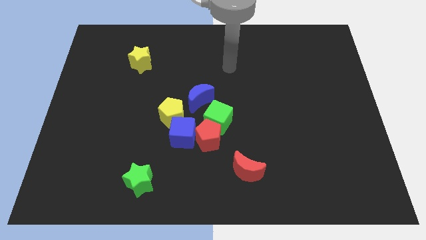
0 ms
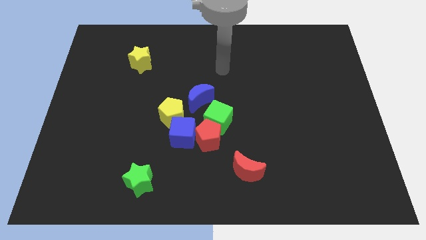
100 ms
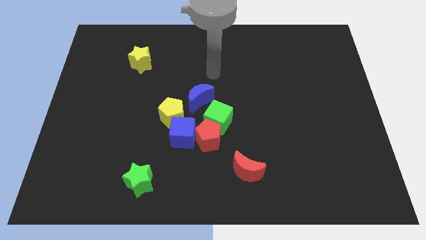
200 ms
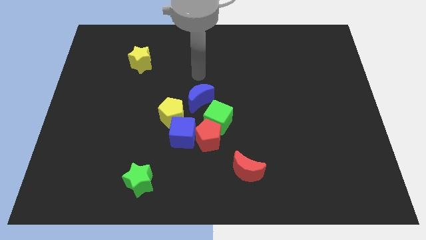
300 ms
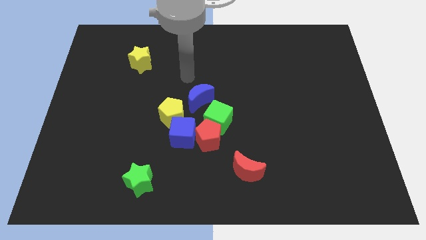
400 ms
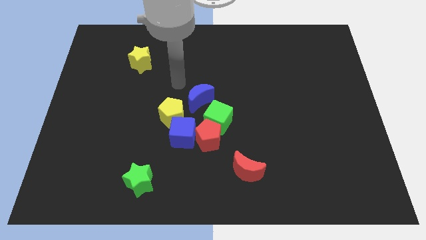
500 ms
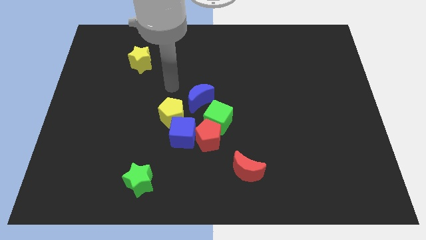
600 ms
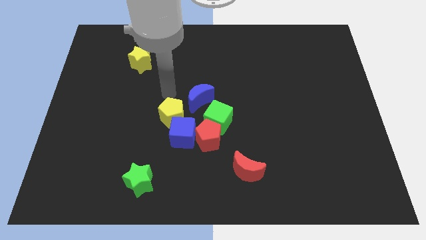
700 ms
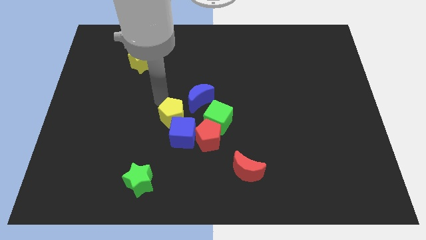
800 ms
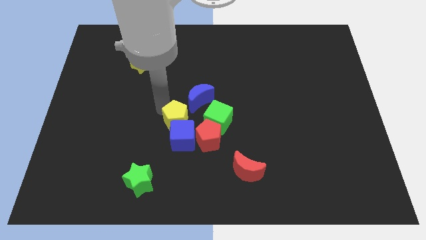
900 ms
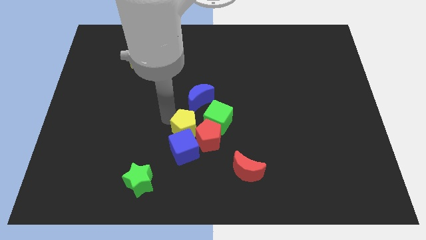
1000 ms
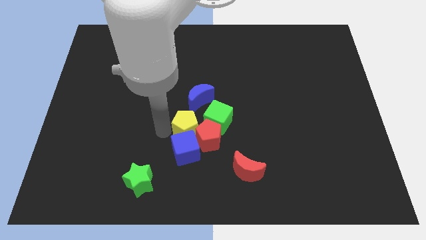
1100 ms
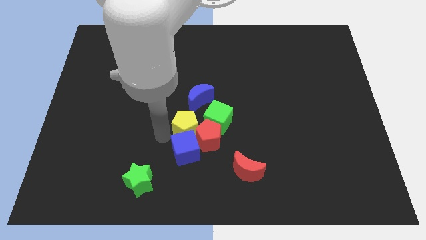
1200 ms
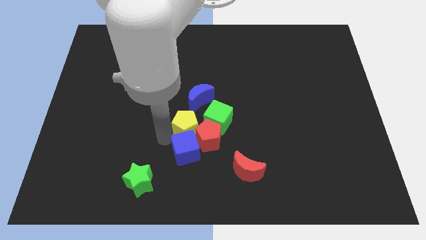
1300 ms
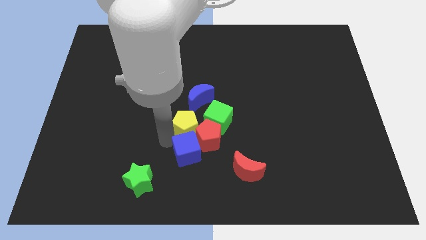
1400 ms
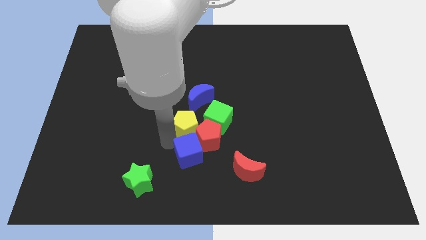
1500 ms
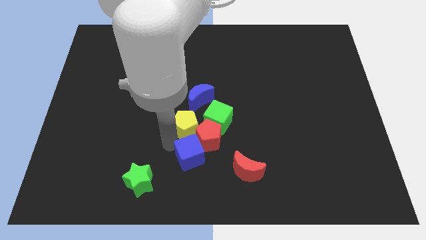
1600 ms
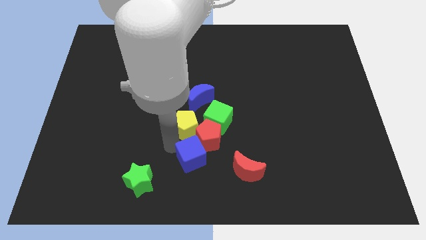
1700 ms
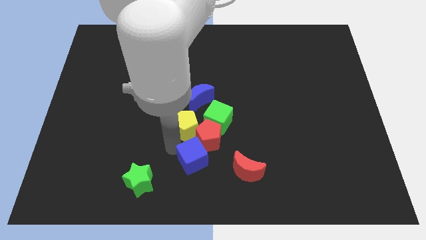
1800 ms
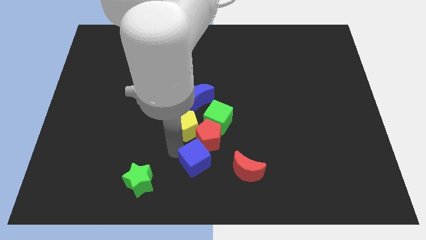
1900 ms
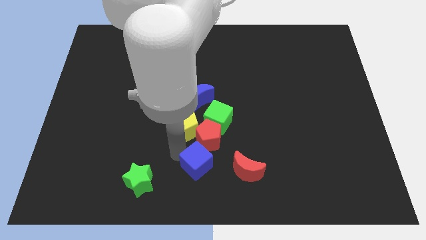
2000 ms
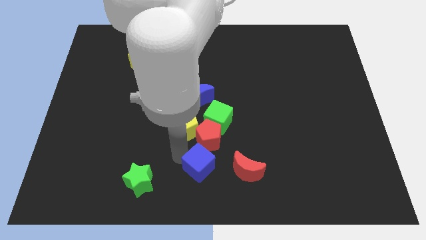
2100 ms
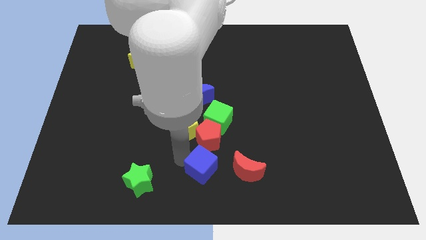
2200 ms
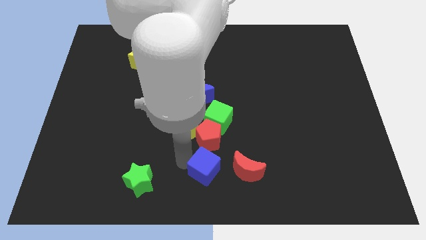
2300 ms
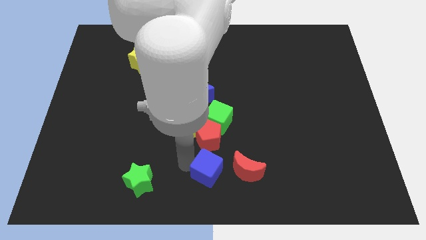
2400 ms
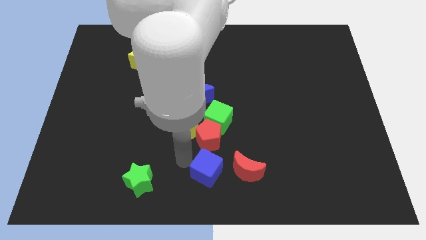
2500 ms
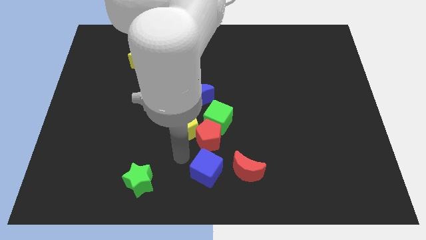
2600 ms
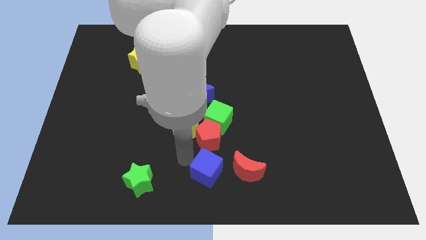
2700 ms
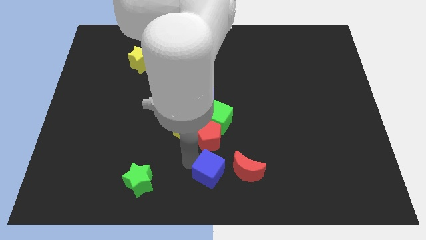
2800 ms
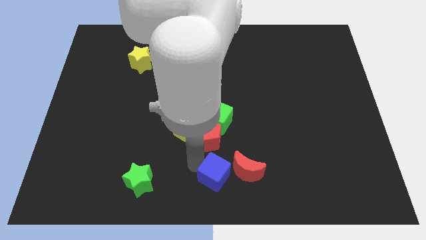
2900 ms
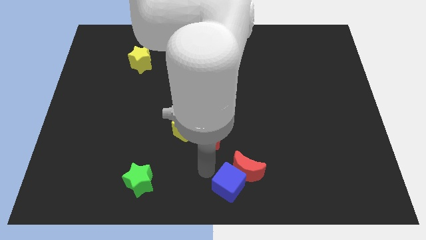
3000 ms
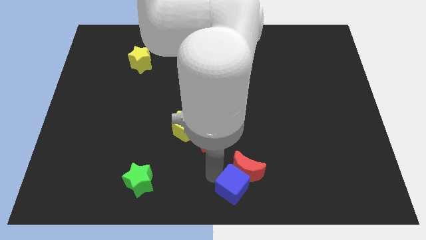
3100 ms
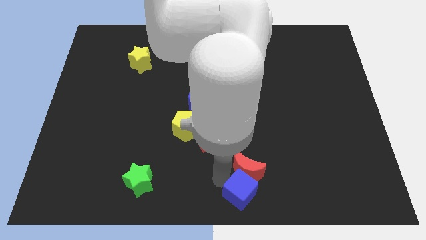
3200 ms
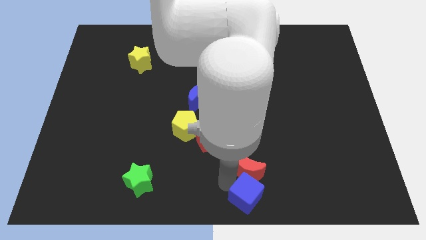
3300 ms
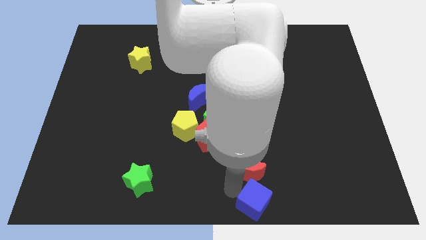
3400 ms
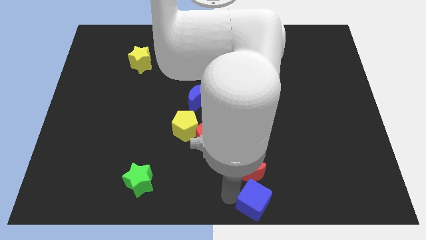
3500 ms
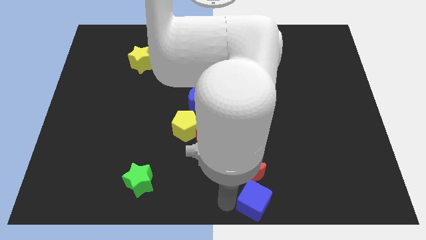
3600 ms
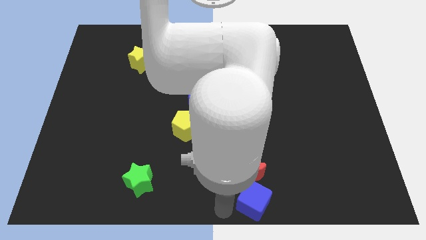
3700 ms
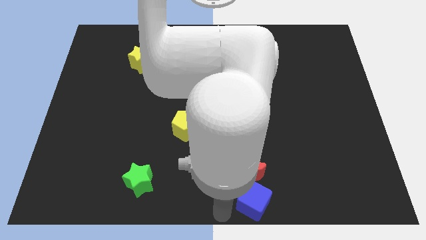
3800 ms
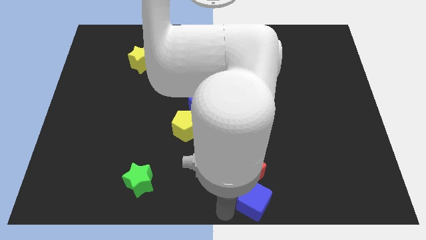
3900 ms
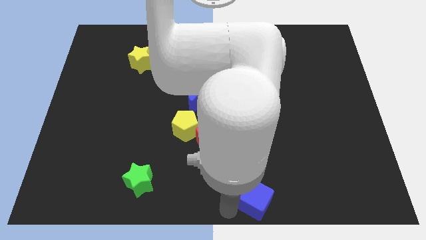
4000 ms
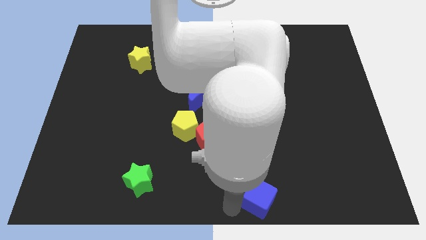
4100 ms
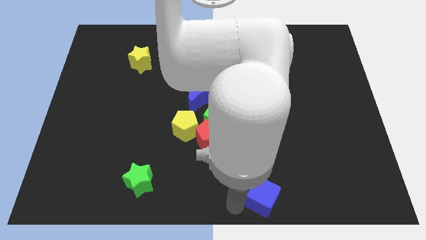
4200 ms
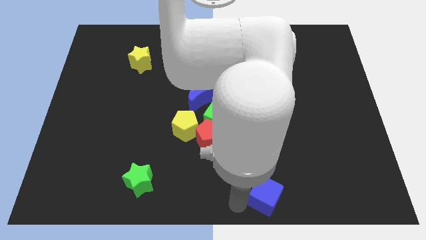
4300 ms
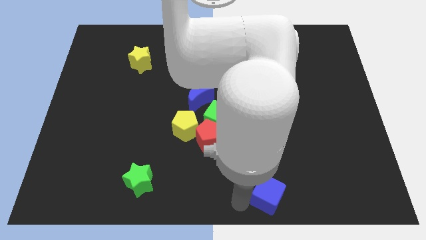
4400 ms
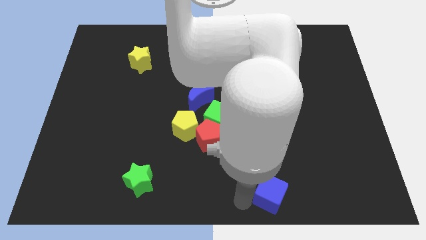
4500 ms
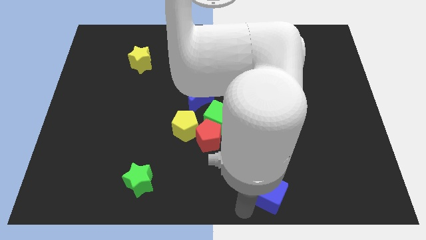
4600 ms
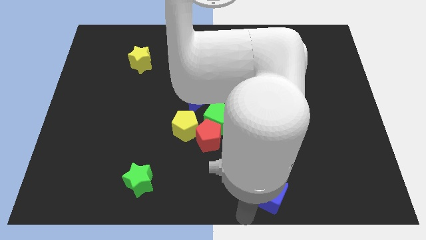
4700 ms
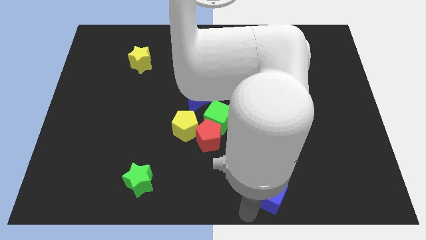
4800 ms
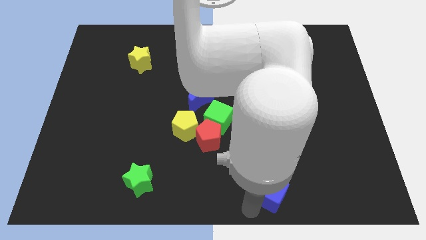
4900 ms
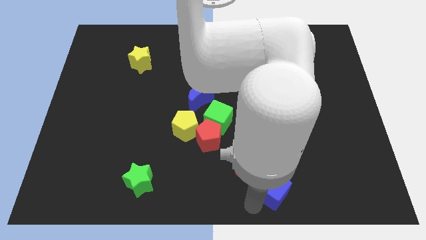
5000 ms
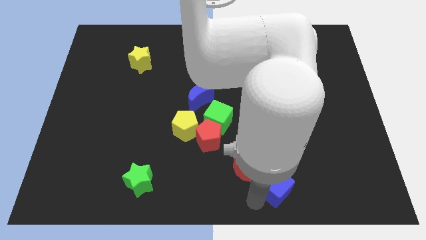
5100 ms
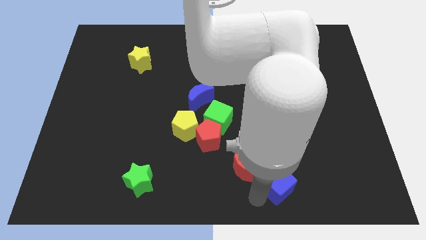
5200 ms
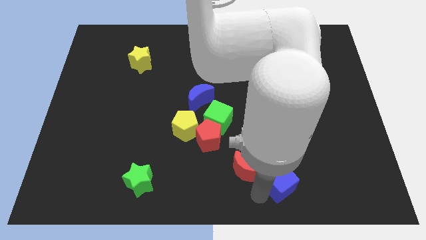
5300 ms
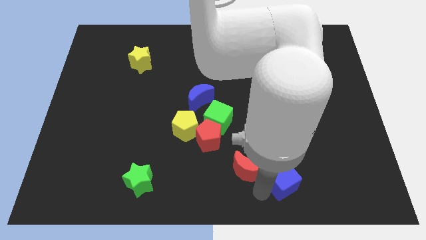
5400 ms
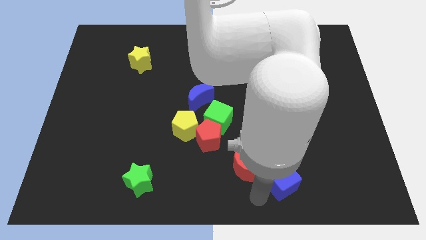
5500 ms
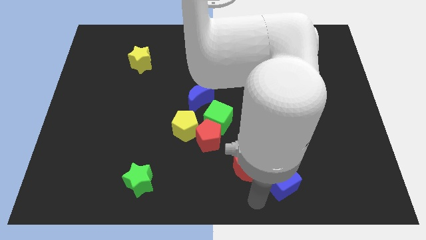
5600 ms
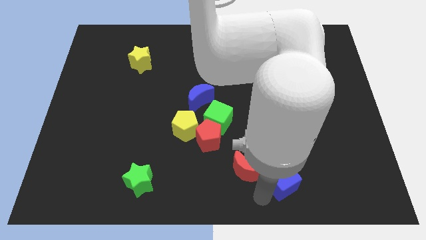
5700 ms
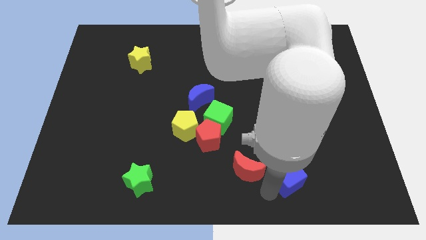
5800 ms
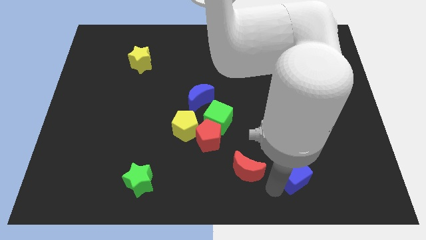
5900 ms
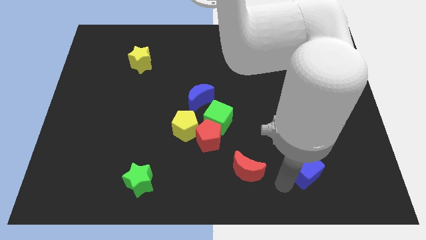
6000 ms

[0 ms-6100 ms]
slide the blue cube right

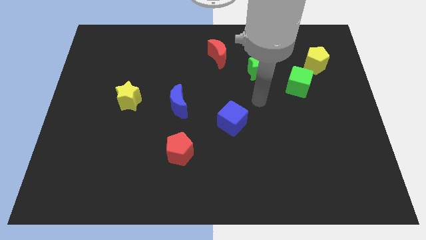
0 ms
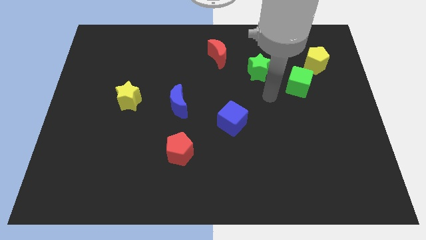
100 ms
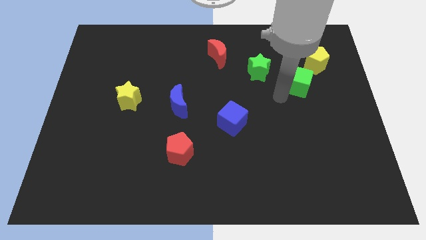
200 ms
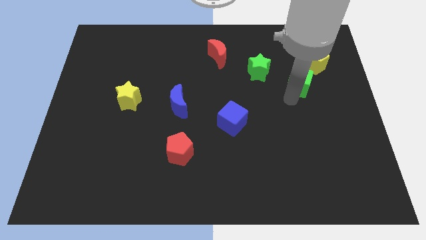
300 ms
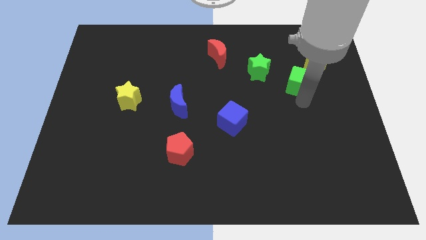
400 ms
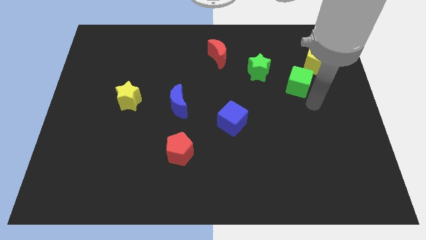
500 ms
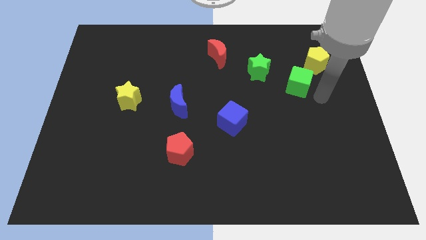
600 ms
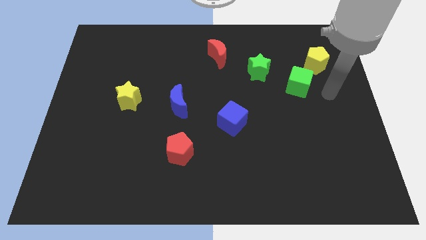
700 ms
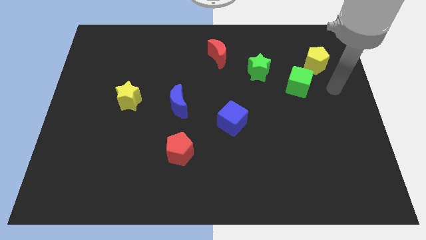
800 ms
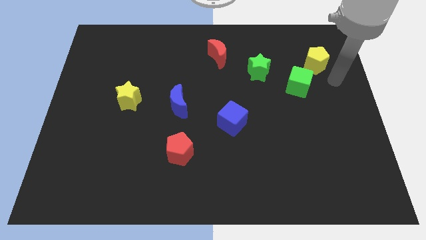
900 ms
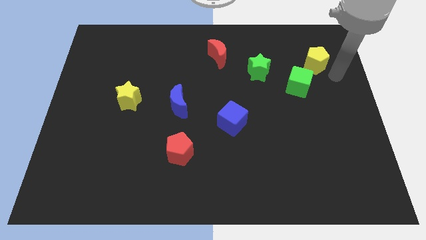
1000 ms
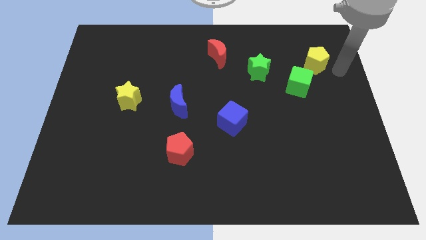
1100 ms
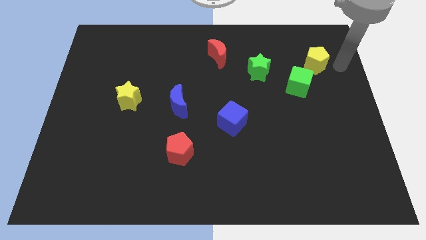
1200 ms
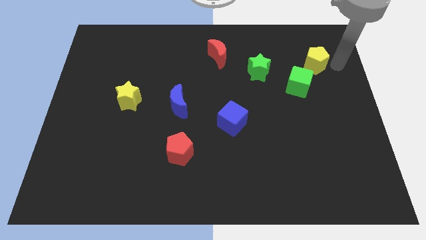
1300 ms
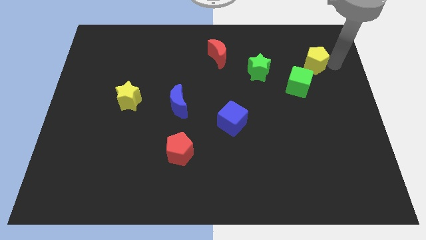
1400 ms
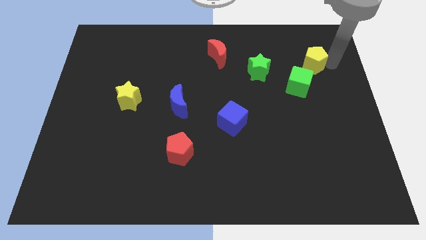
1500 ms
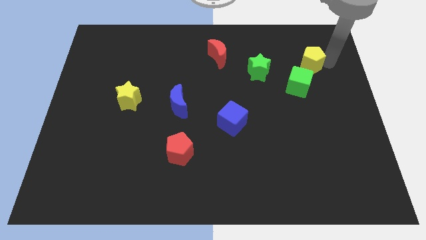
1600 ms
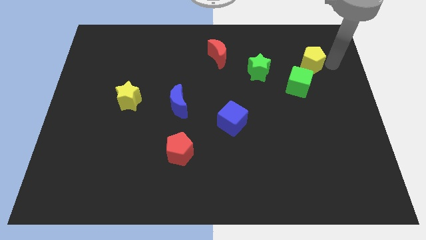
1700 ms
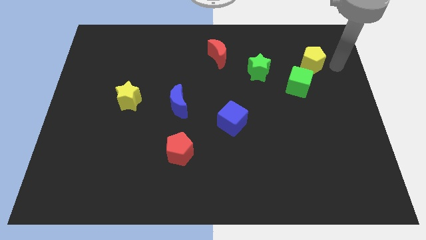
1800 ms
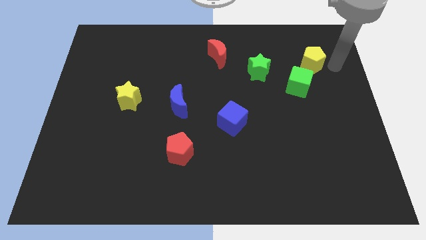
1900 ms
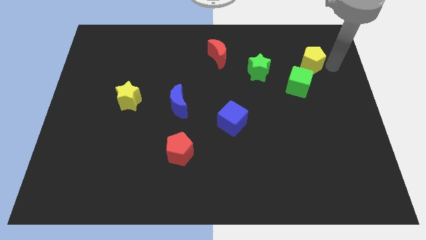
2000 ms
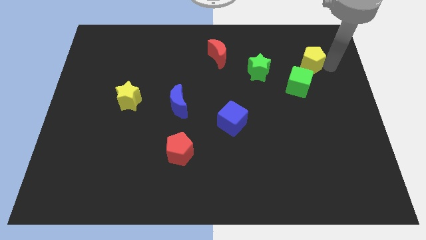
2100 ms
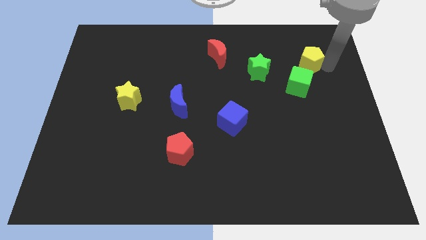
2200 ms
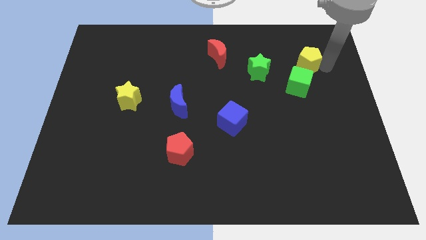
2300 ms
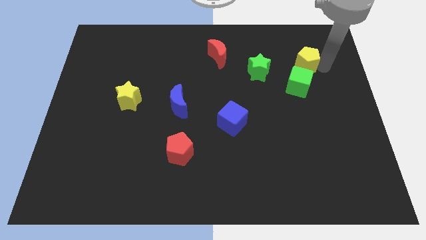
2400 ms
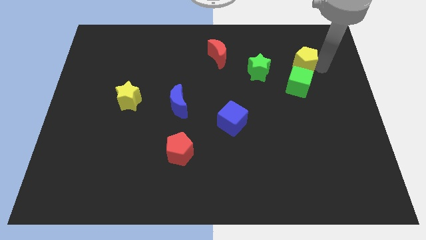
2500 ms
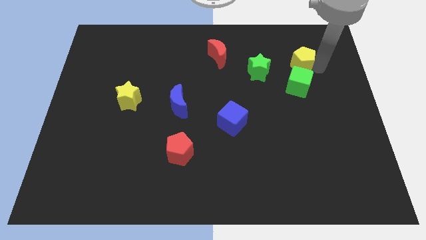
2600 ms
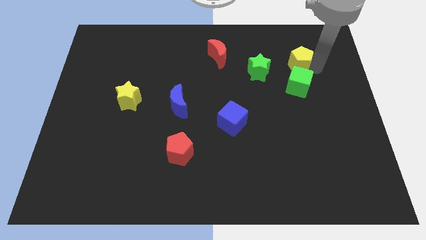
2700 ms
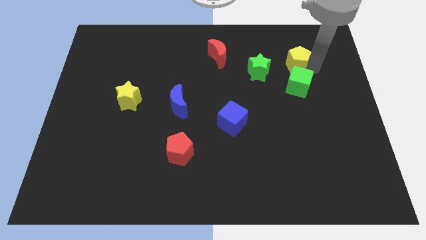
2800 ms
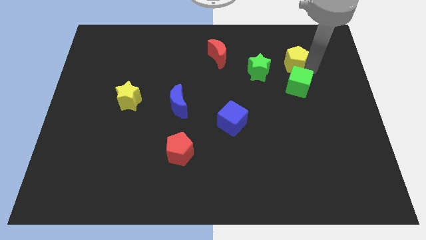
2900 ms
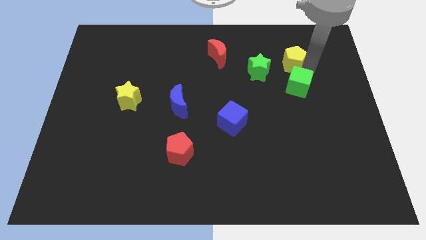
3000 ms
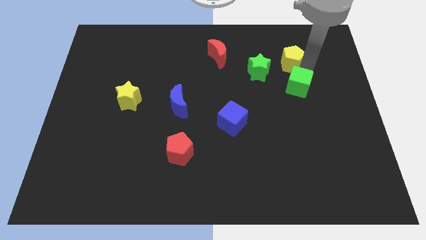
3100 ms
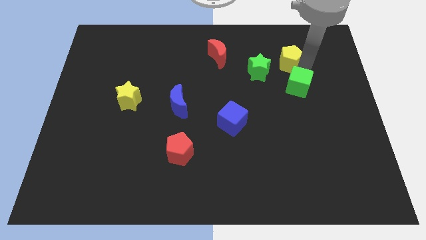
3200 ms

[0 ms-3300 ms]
slightly slide the yellow pentagon to the left
